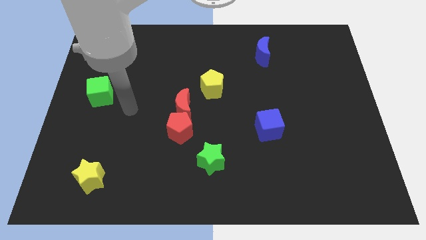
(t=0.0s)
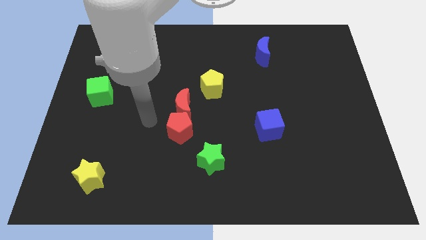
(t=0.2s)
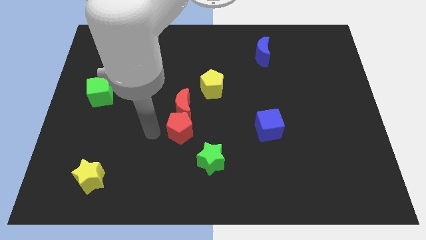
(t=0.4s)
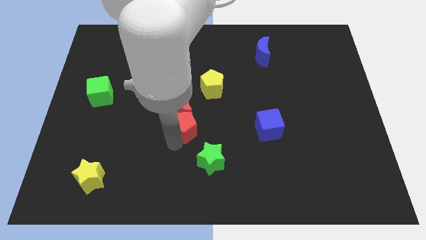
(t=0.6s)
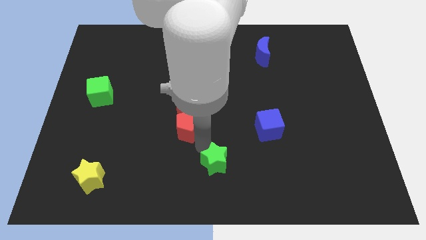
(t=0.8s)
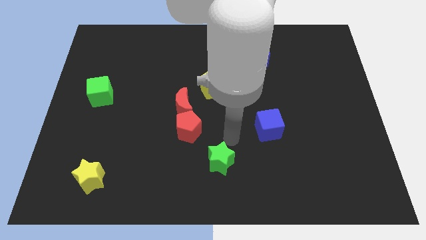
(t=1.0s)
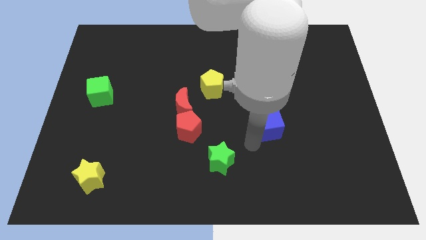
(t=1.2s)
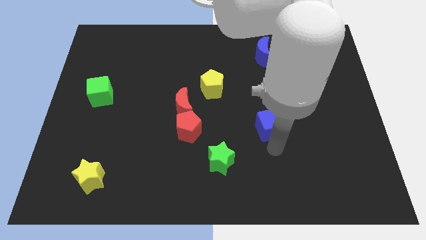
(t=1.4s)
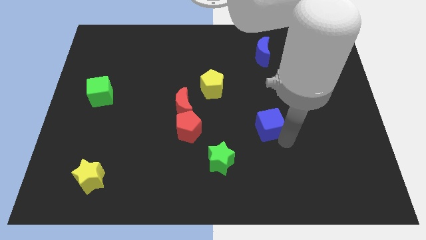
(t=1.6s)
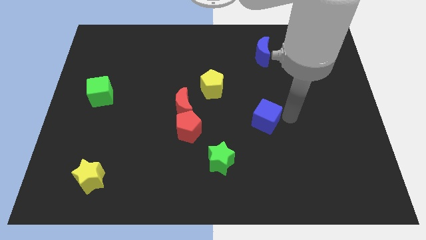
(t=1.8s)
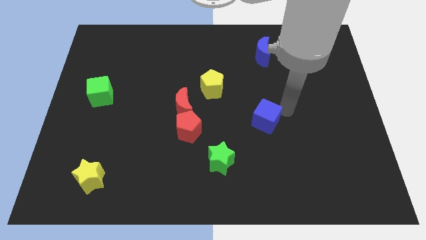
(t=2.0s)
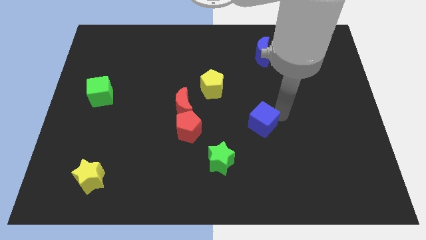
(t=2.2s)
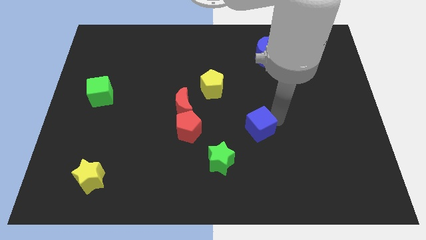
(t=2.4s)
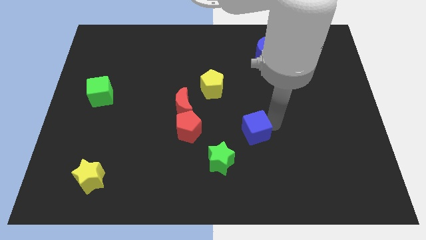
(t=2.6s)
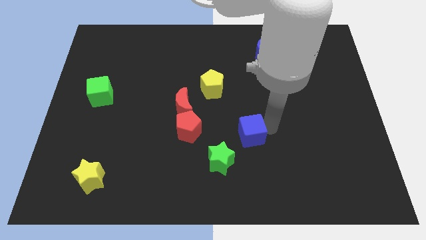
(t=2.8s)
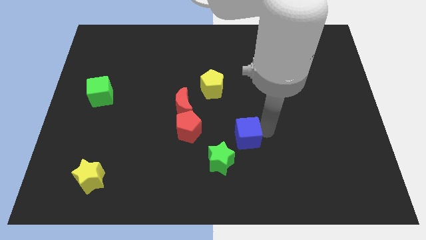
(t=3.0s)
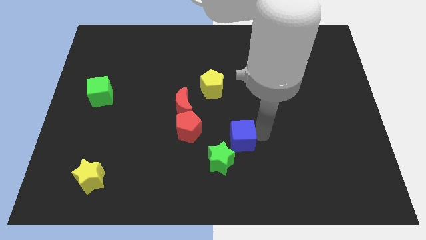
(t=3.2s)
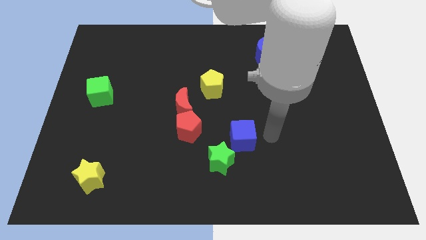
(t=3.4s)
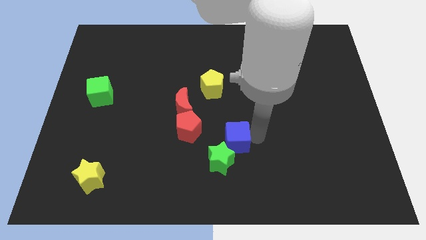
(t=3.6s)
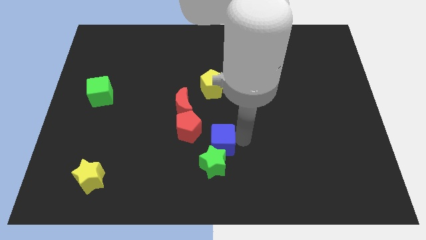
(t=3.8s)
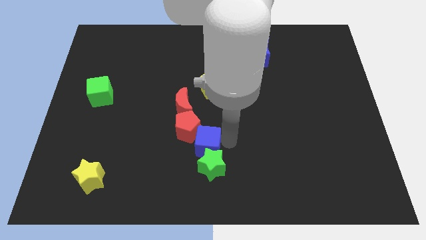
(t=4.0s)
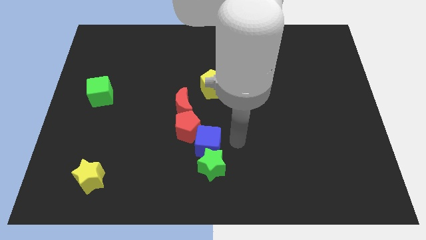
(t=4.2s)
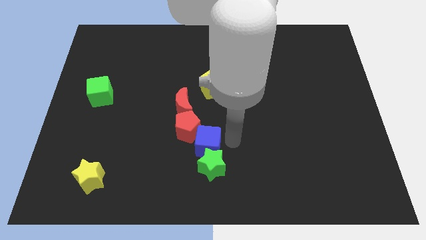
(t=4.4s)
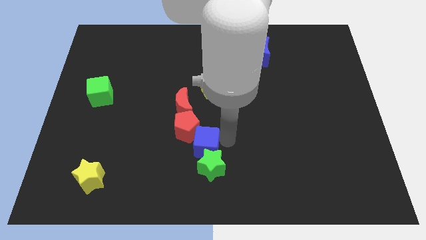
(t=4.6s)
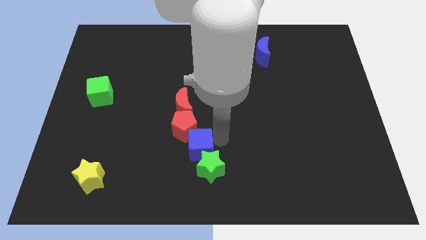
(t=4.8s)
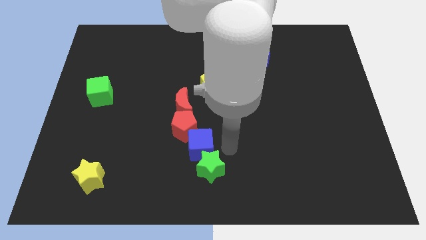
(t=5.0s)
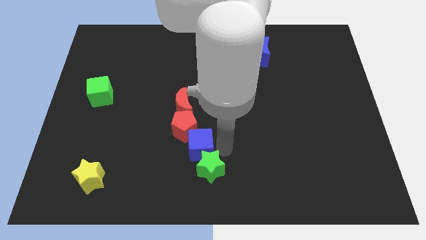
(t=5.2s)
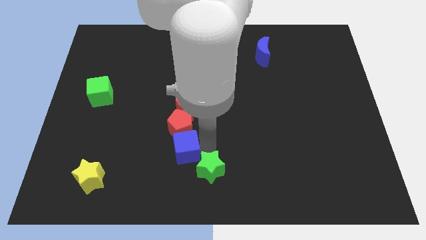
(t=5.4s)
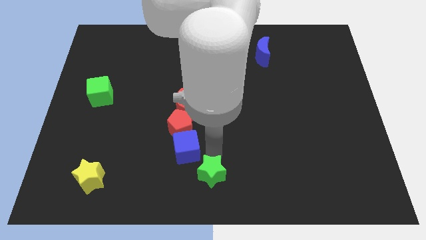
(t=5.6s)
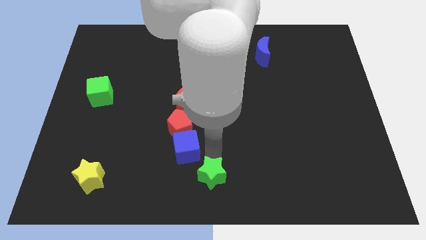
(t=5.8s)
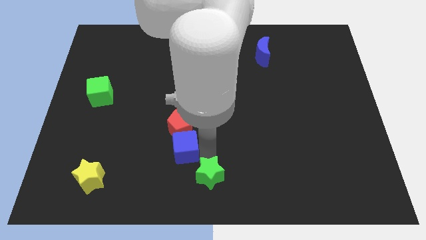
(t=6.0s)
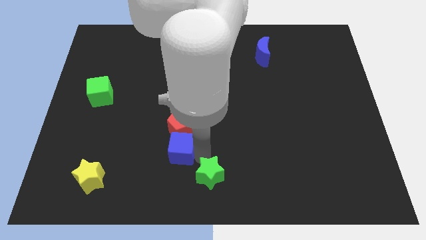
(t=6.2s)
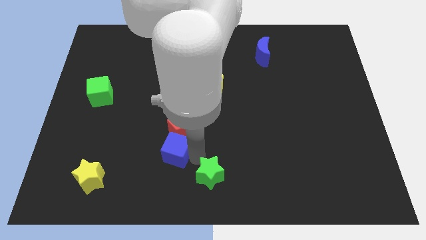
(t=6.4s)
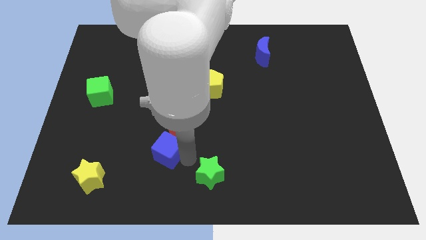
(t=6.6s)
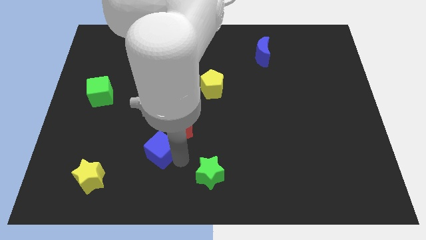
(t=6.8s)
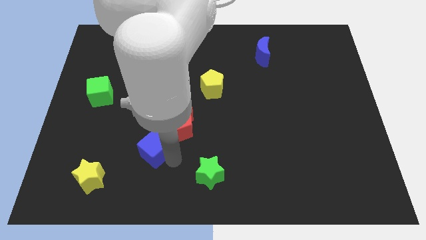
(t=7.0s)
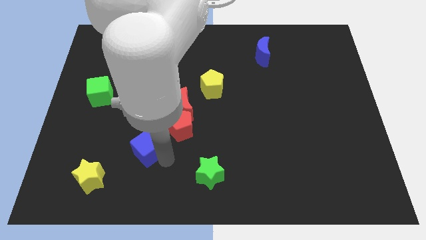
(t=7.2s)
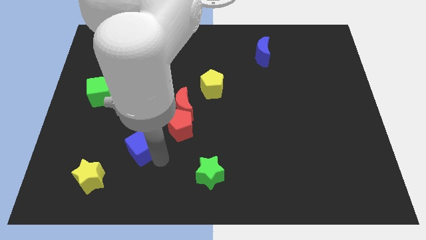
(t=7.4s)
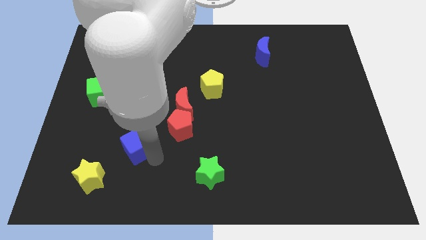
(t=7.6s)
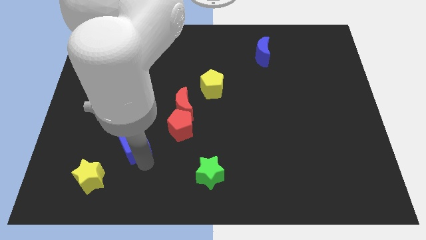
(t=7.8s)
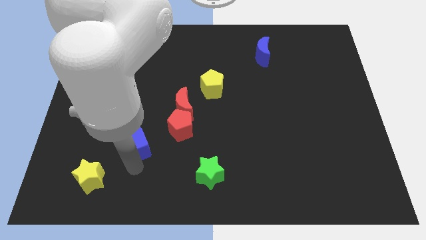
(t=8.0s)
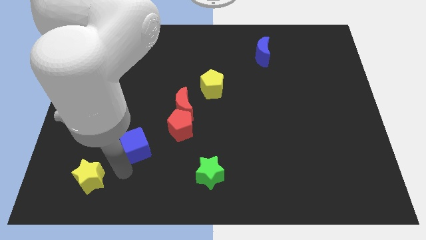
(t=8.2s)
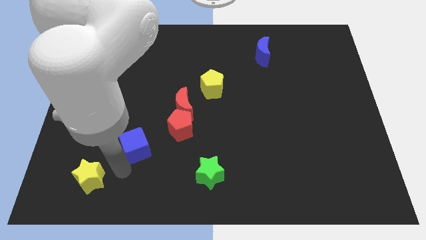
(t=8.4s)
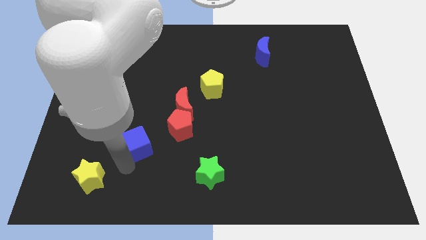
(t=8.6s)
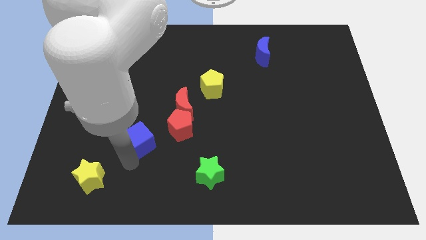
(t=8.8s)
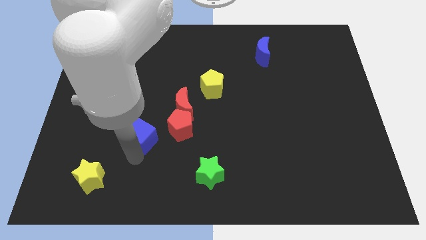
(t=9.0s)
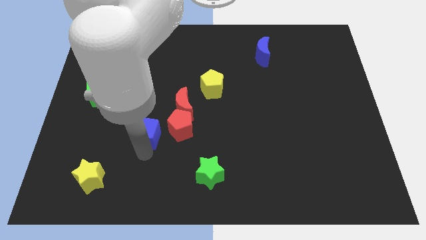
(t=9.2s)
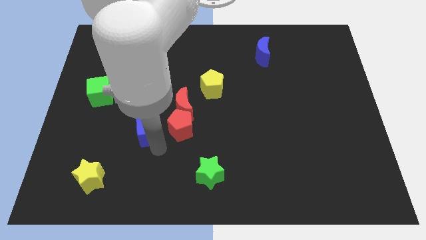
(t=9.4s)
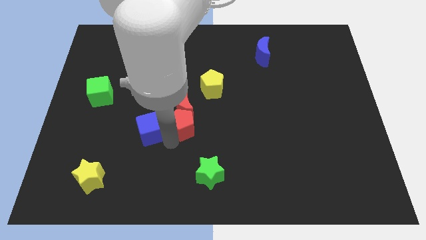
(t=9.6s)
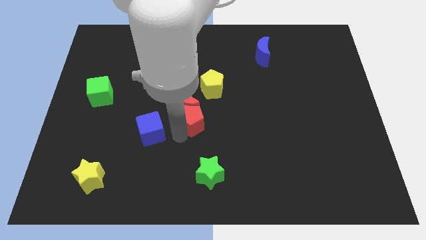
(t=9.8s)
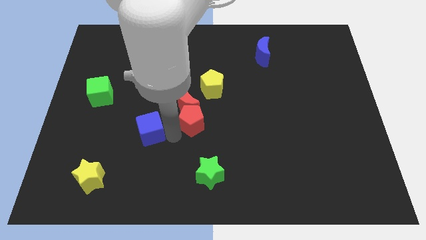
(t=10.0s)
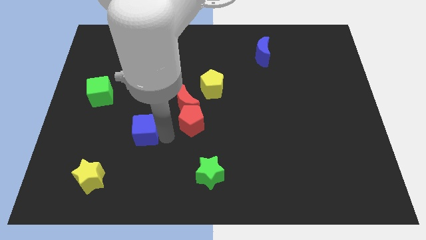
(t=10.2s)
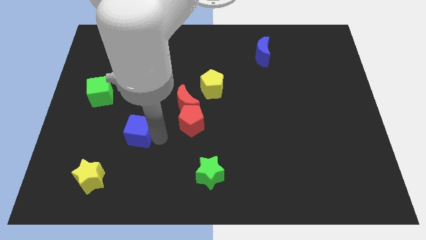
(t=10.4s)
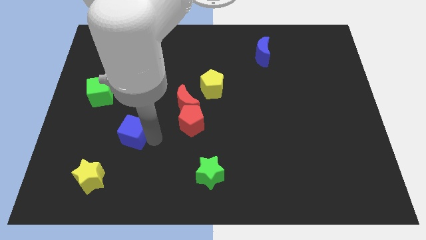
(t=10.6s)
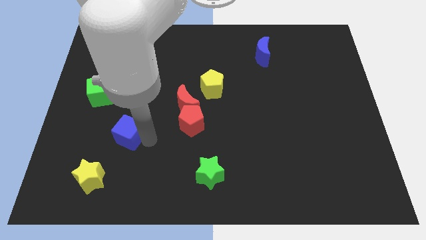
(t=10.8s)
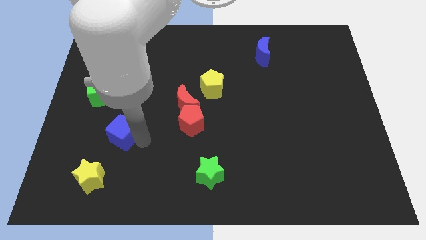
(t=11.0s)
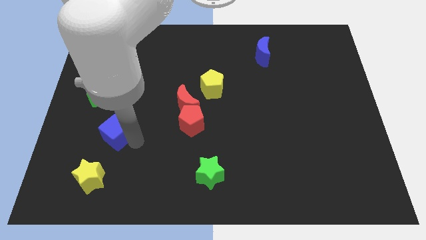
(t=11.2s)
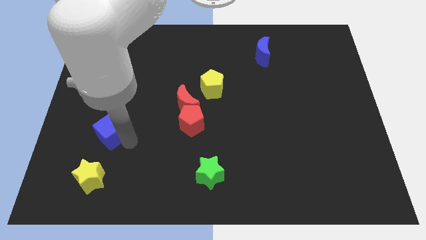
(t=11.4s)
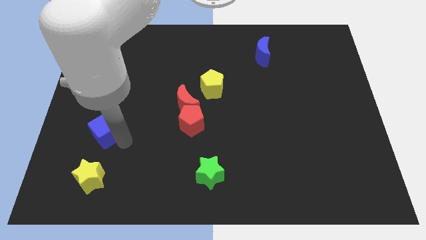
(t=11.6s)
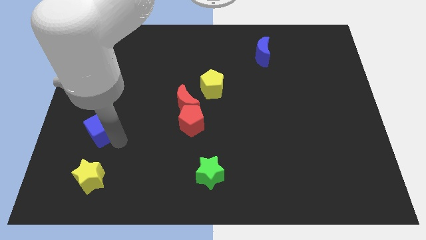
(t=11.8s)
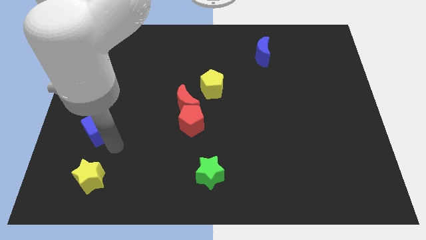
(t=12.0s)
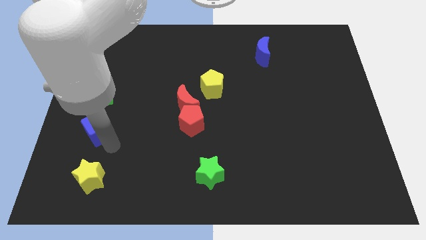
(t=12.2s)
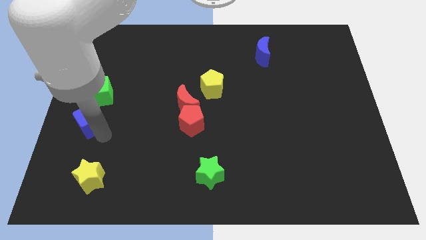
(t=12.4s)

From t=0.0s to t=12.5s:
put the blue cube to the left side of the board

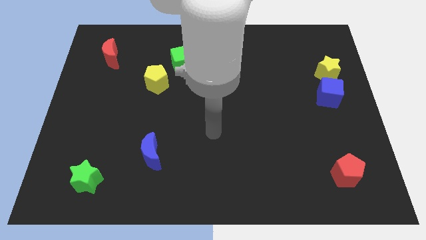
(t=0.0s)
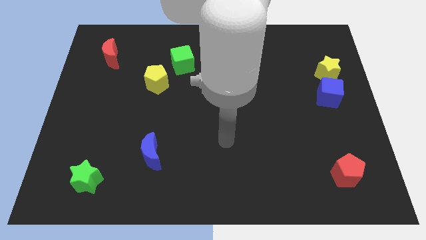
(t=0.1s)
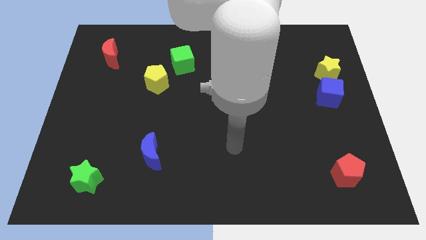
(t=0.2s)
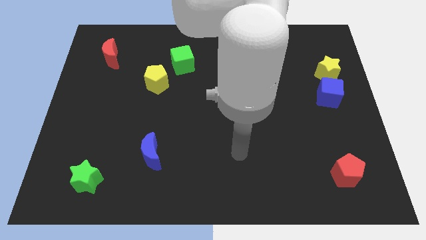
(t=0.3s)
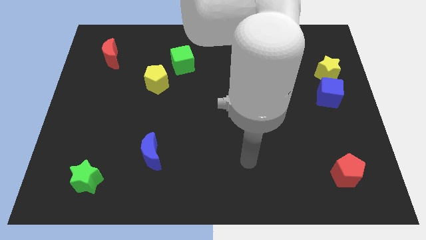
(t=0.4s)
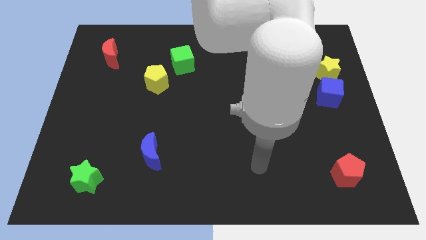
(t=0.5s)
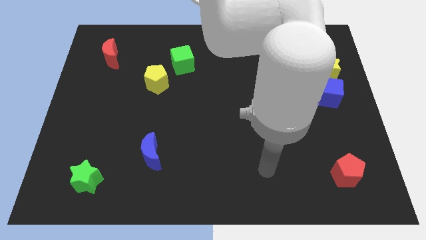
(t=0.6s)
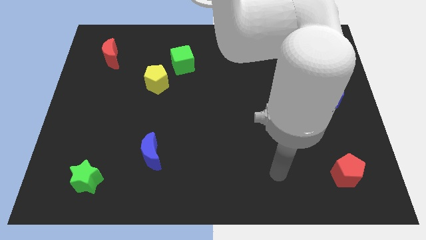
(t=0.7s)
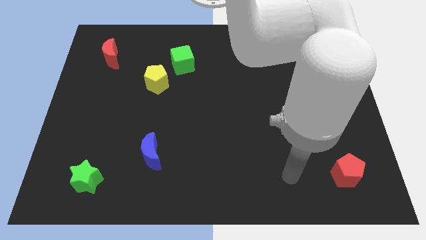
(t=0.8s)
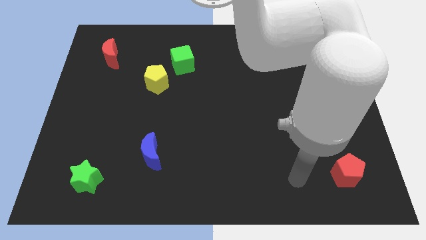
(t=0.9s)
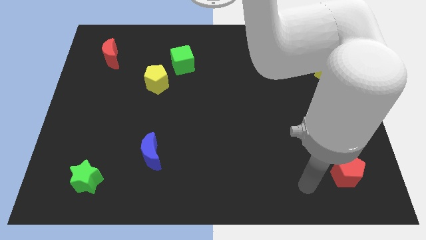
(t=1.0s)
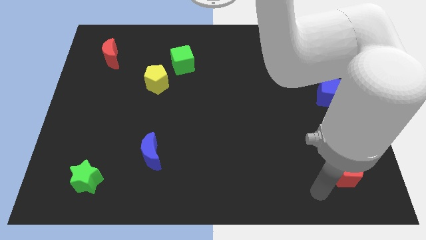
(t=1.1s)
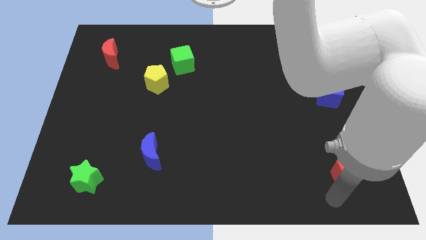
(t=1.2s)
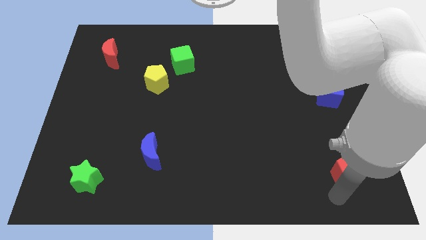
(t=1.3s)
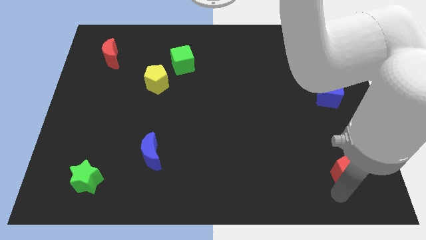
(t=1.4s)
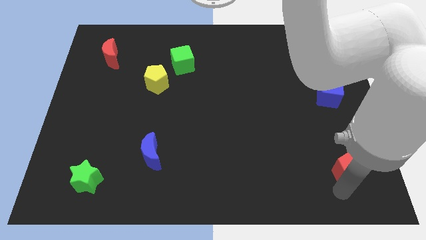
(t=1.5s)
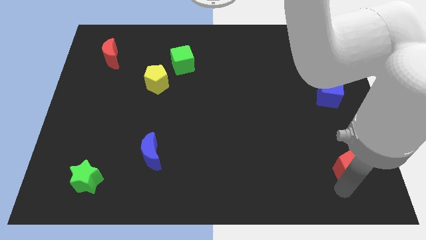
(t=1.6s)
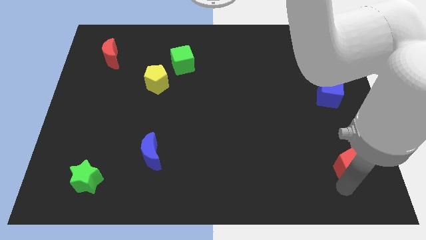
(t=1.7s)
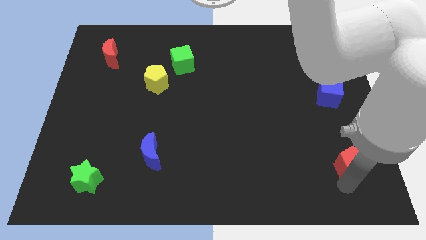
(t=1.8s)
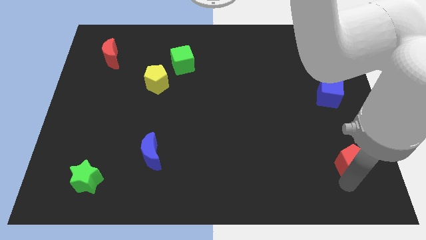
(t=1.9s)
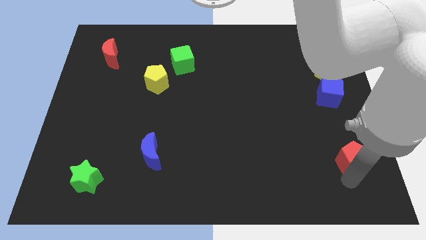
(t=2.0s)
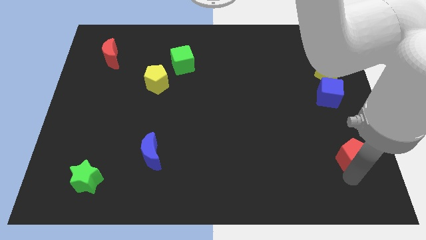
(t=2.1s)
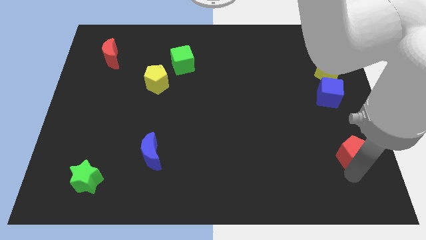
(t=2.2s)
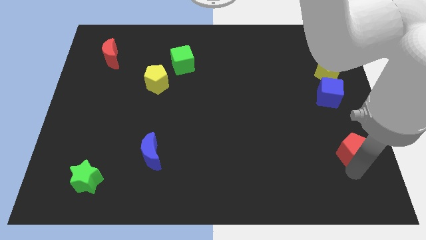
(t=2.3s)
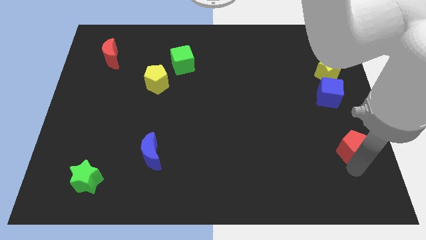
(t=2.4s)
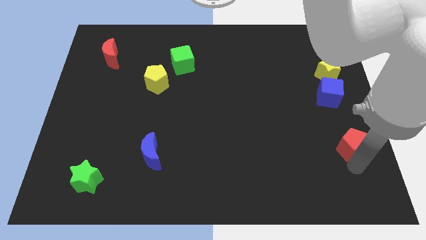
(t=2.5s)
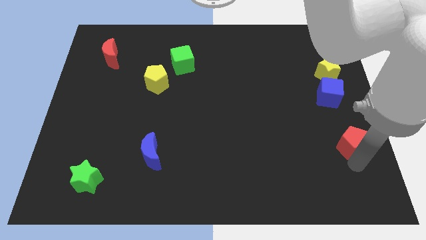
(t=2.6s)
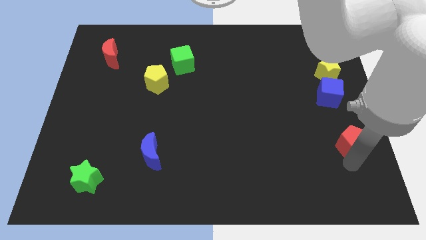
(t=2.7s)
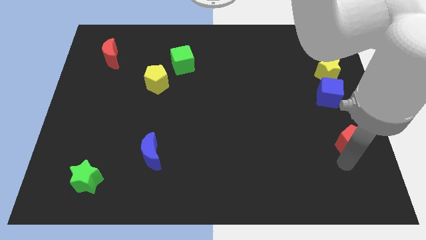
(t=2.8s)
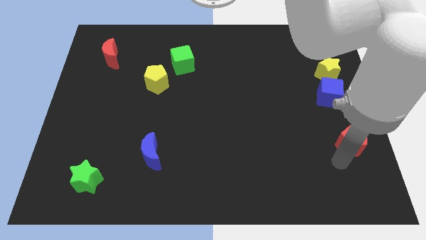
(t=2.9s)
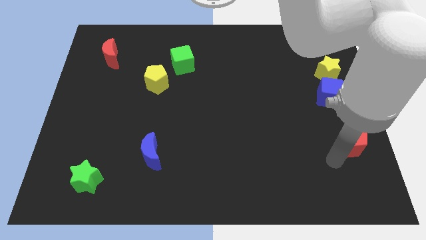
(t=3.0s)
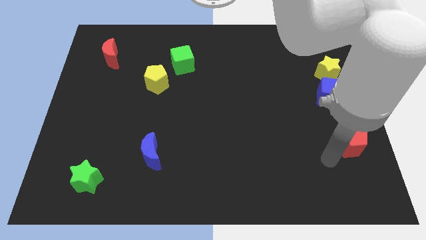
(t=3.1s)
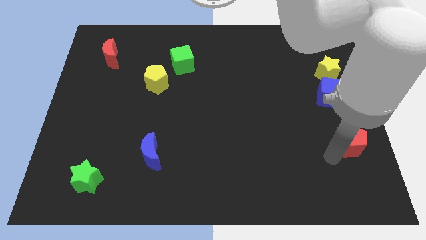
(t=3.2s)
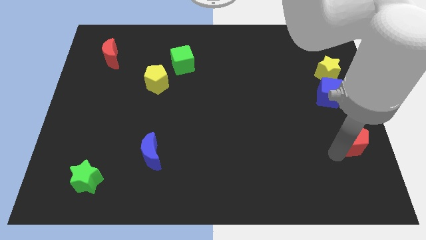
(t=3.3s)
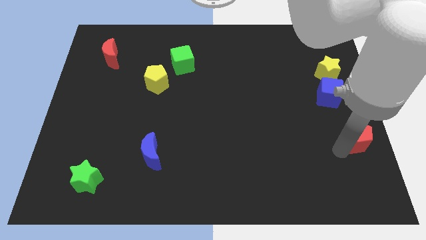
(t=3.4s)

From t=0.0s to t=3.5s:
push the red pentagon to the right side
